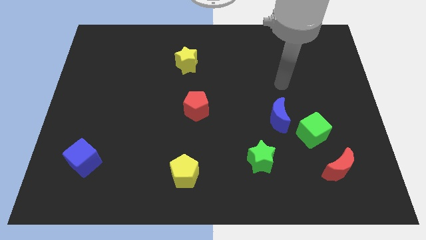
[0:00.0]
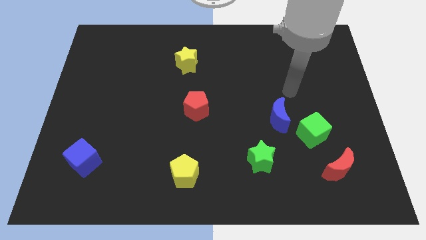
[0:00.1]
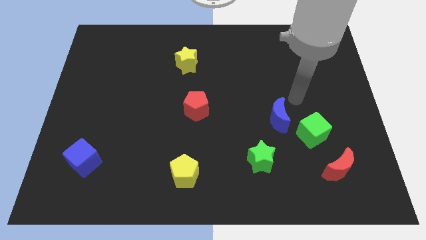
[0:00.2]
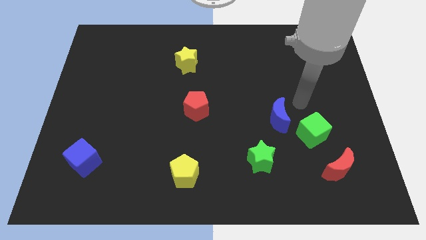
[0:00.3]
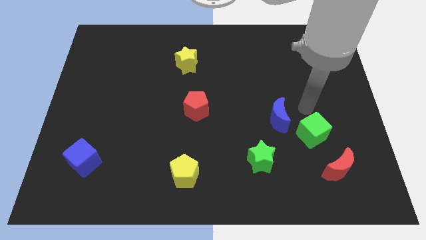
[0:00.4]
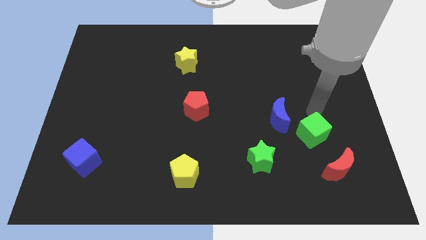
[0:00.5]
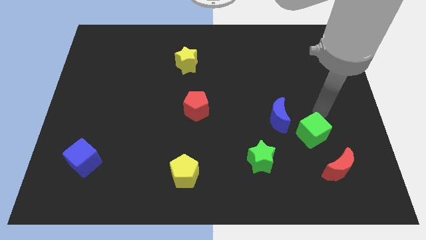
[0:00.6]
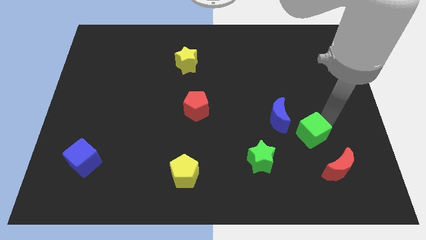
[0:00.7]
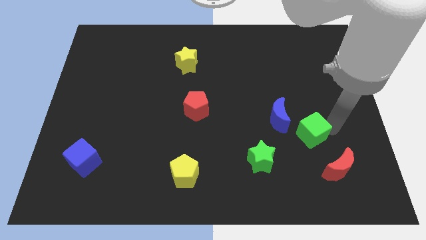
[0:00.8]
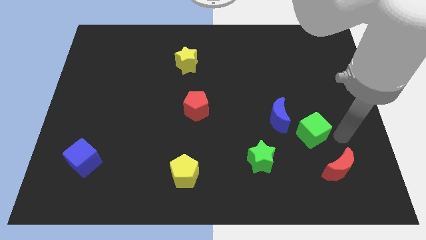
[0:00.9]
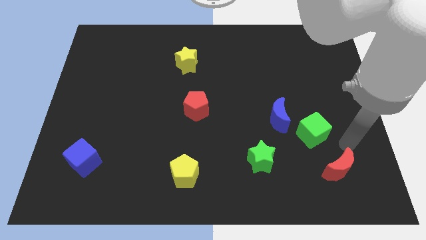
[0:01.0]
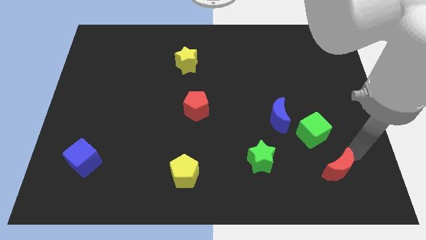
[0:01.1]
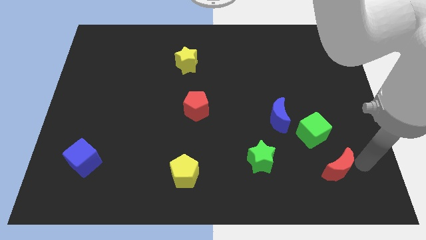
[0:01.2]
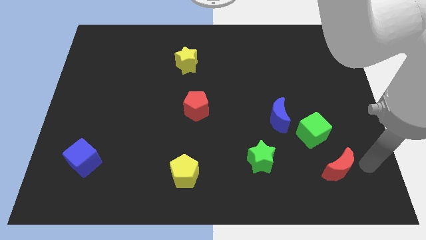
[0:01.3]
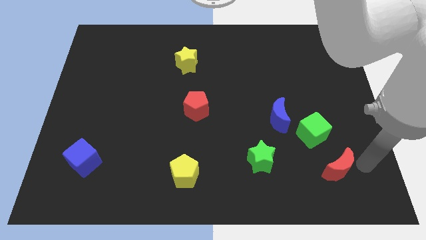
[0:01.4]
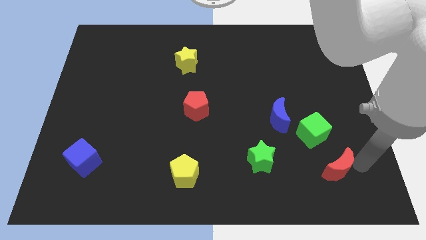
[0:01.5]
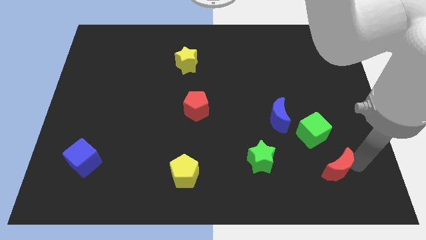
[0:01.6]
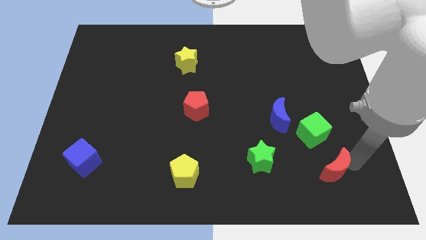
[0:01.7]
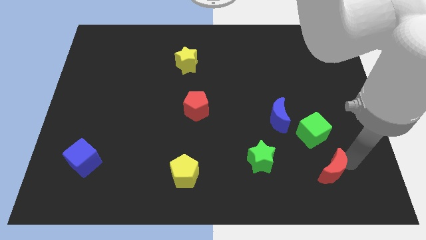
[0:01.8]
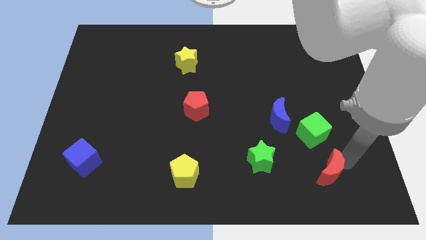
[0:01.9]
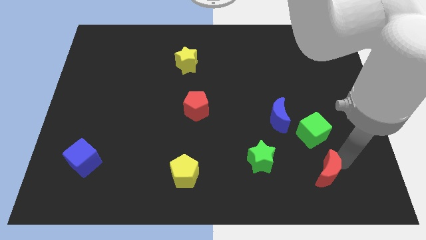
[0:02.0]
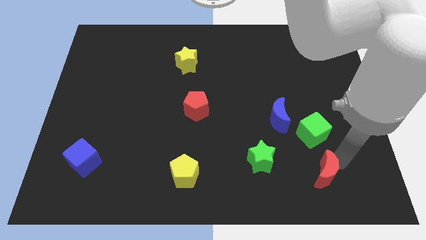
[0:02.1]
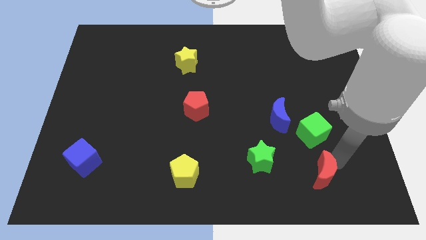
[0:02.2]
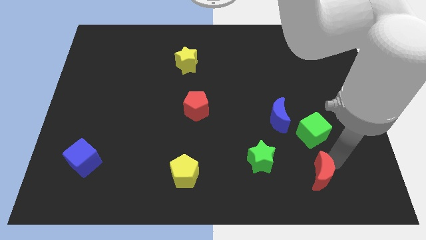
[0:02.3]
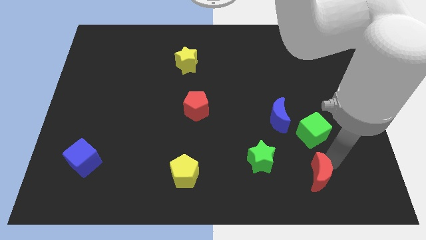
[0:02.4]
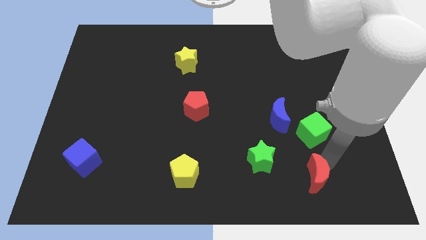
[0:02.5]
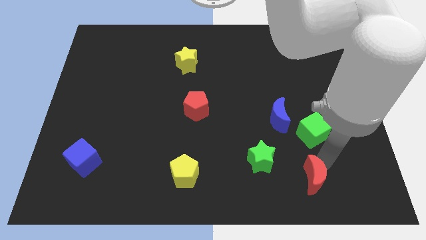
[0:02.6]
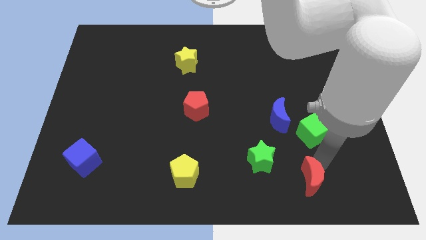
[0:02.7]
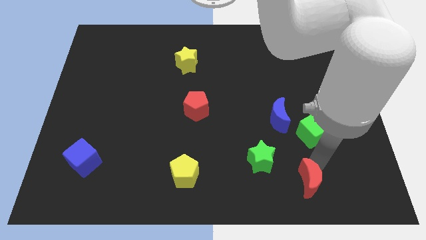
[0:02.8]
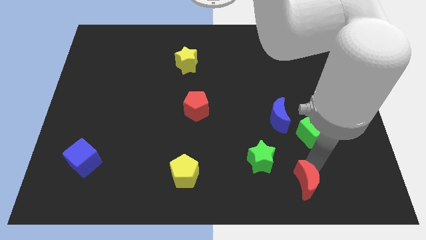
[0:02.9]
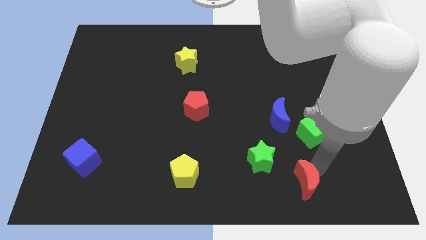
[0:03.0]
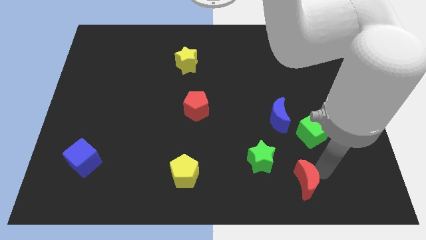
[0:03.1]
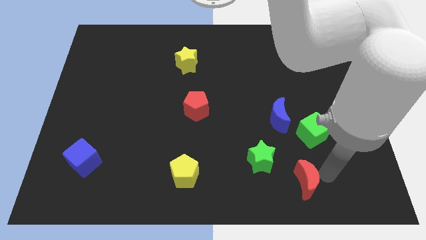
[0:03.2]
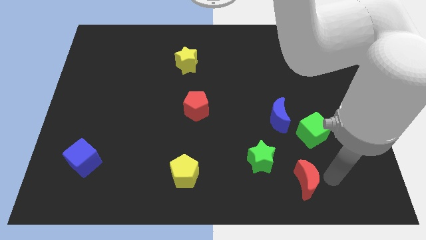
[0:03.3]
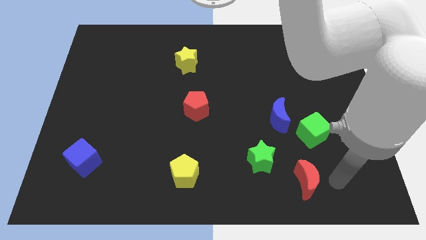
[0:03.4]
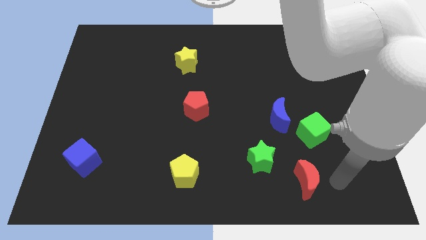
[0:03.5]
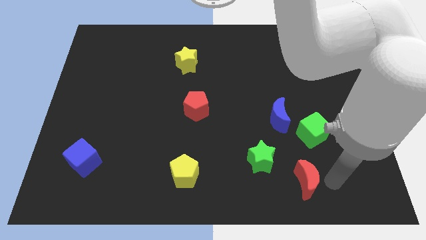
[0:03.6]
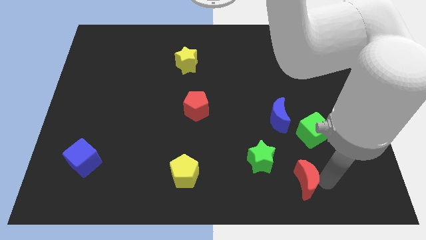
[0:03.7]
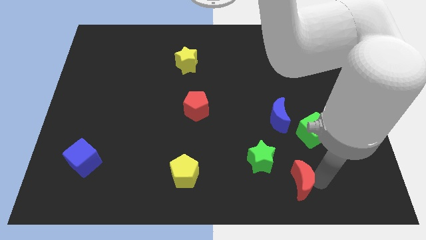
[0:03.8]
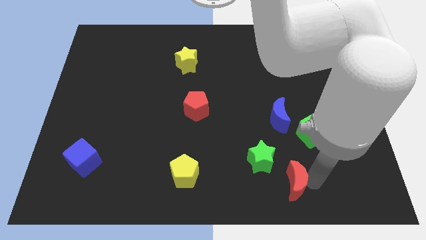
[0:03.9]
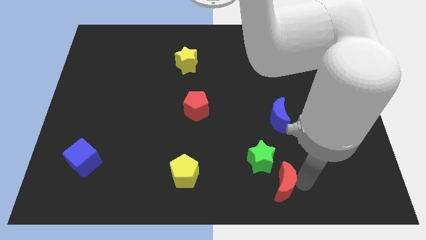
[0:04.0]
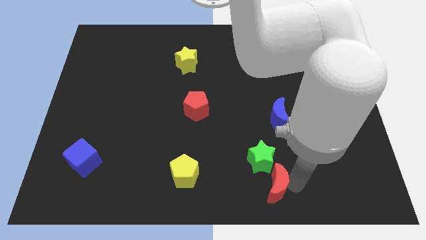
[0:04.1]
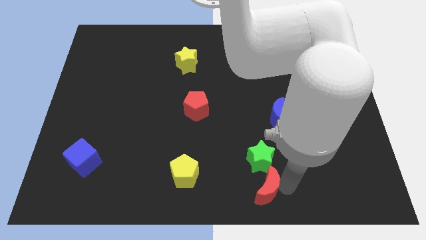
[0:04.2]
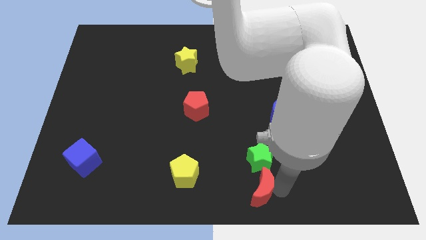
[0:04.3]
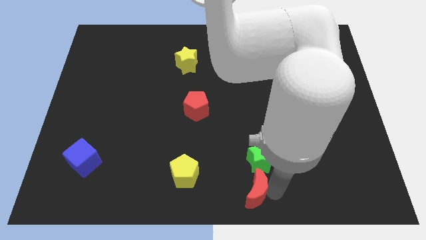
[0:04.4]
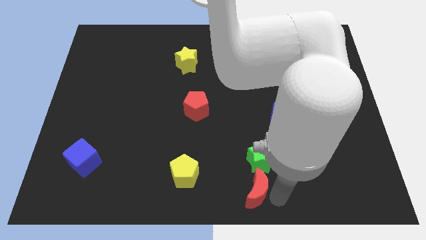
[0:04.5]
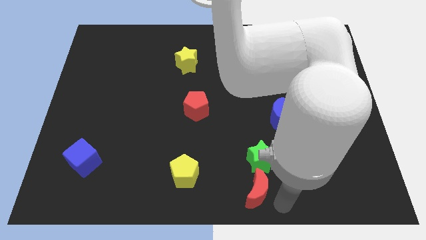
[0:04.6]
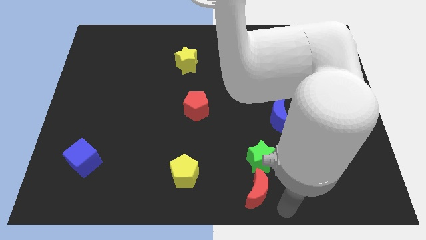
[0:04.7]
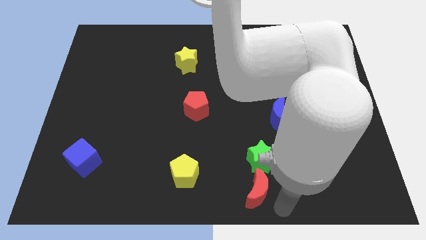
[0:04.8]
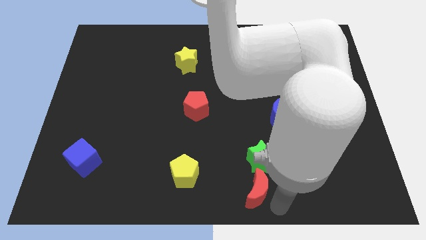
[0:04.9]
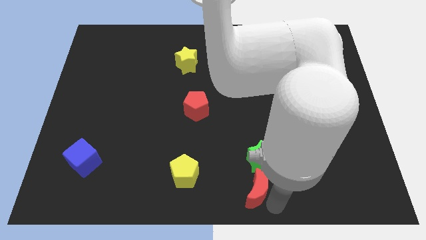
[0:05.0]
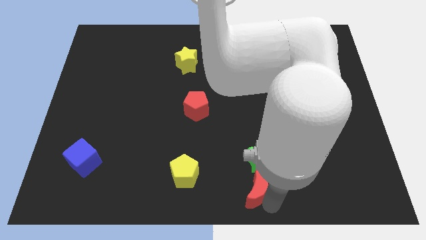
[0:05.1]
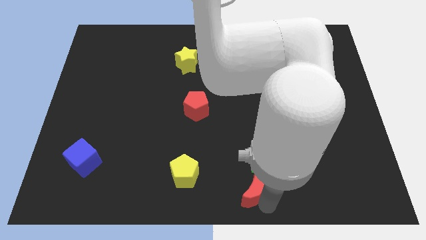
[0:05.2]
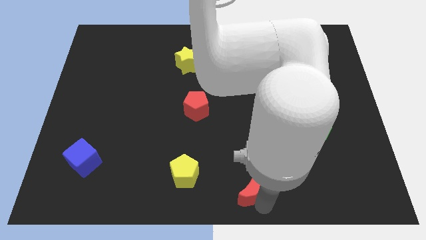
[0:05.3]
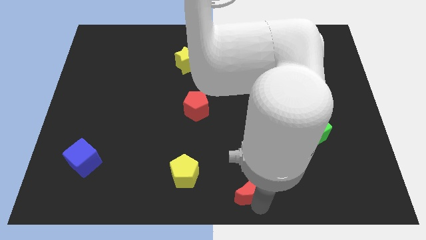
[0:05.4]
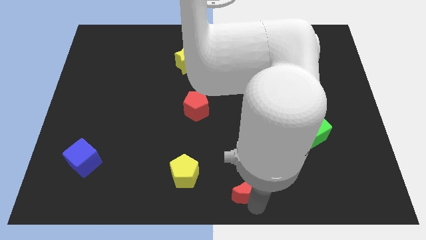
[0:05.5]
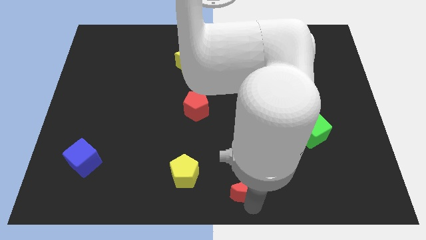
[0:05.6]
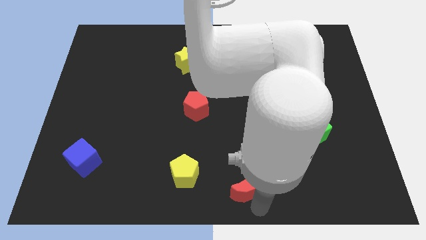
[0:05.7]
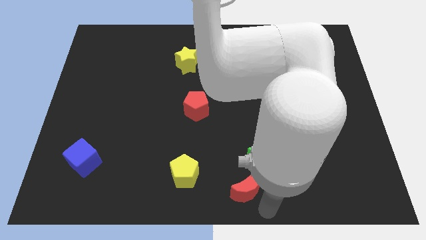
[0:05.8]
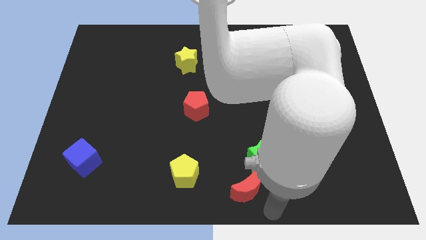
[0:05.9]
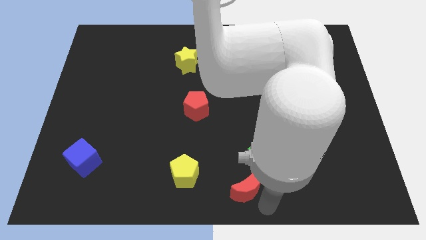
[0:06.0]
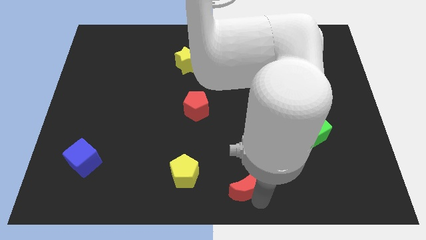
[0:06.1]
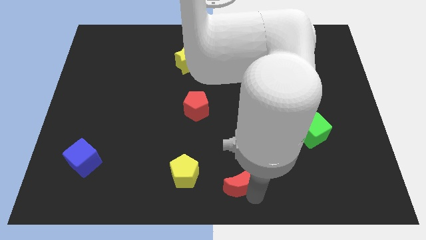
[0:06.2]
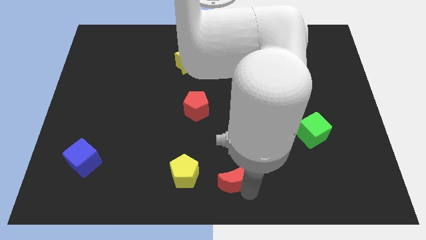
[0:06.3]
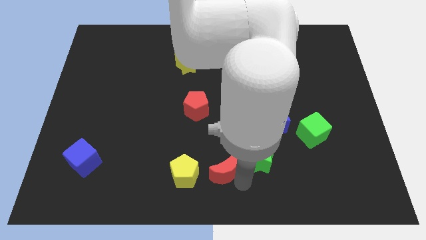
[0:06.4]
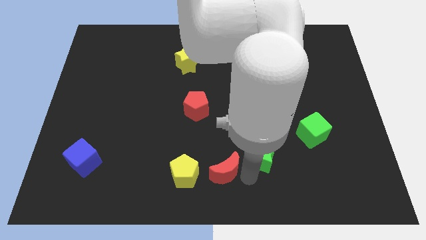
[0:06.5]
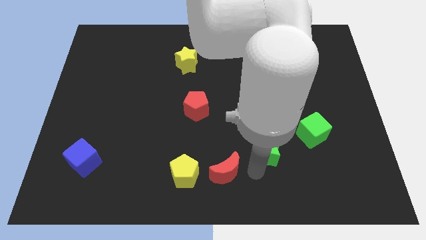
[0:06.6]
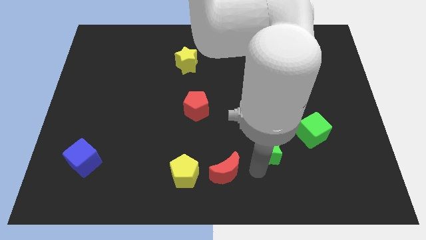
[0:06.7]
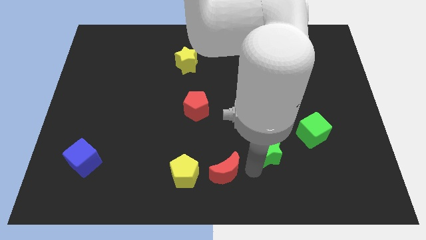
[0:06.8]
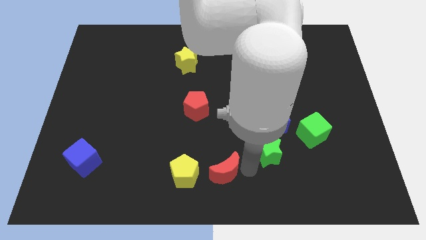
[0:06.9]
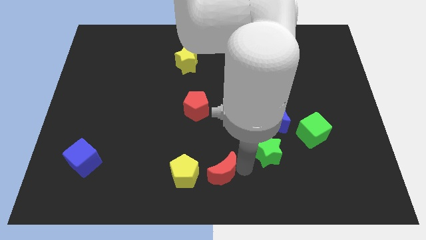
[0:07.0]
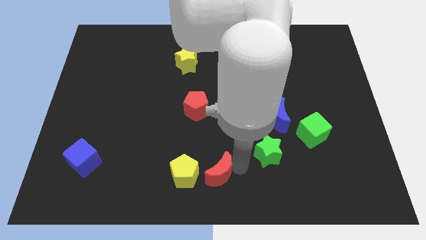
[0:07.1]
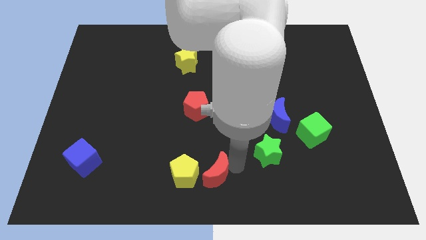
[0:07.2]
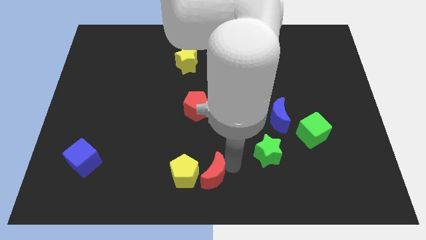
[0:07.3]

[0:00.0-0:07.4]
move the red moon close to the yellow pentagon
